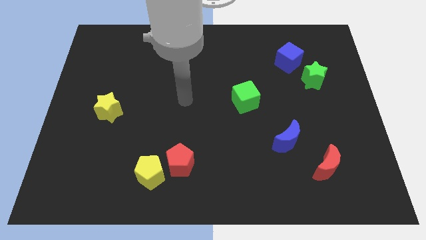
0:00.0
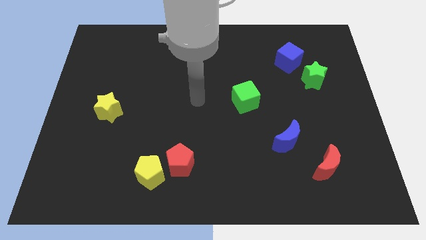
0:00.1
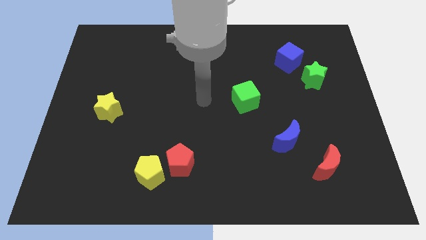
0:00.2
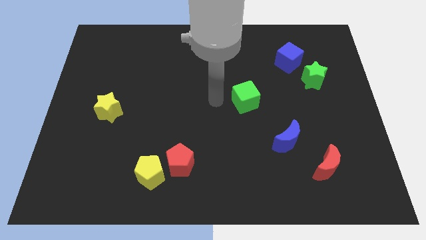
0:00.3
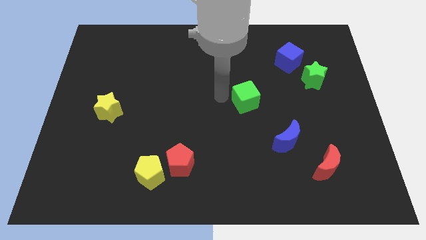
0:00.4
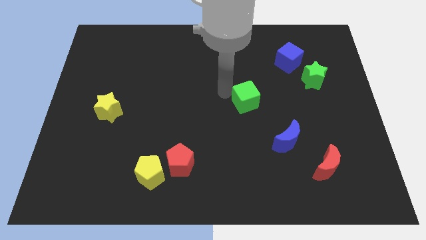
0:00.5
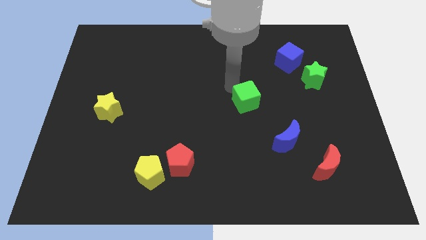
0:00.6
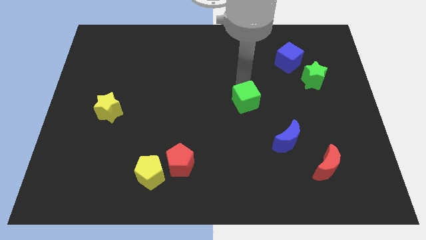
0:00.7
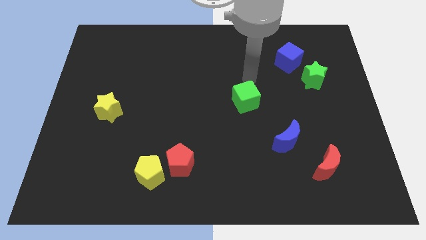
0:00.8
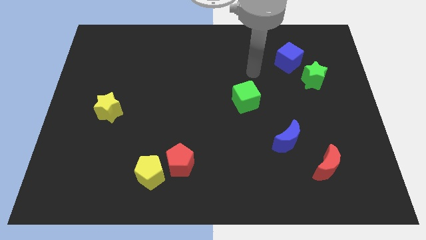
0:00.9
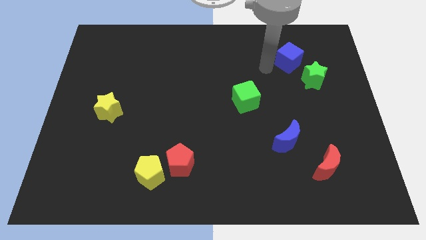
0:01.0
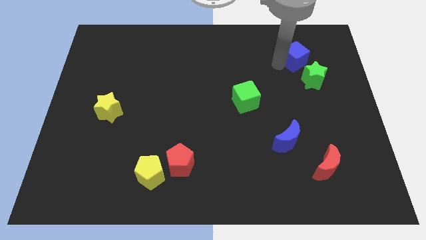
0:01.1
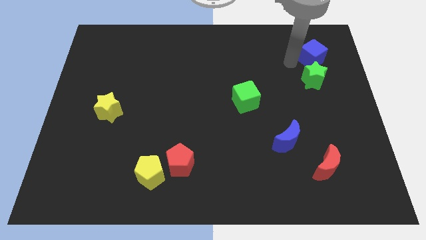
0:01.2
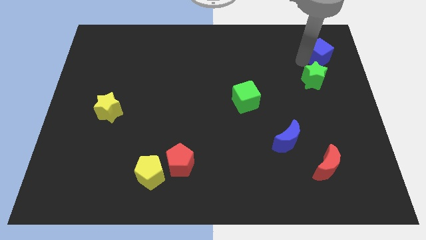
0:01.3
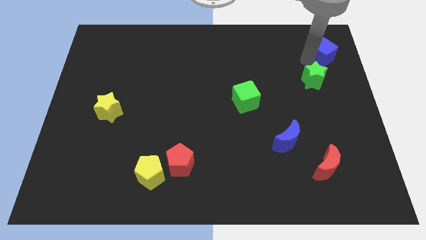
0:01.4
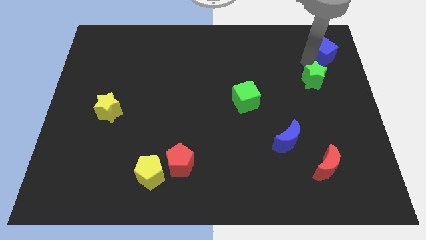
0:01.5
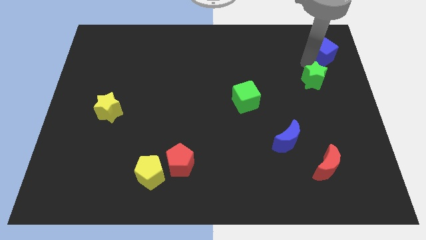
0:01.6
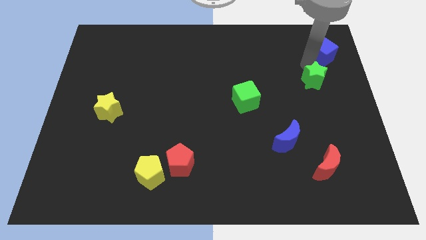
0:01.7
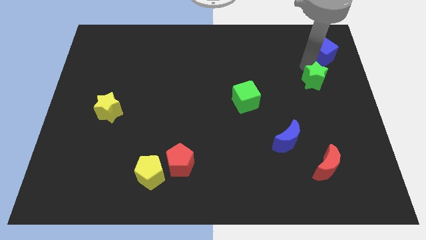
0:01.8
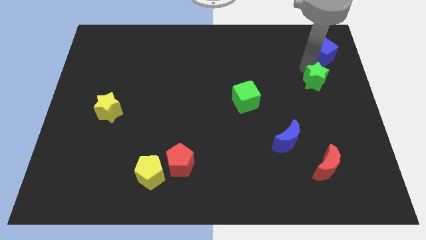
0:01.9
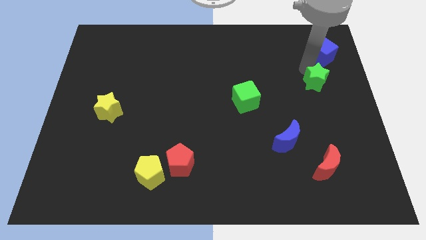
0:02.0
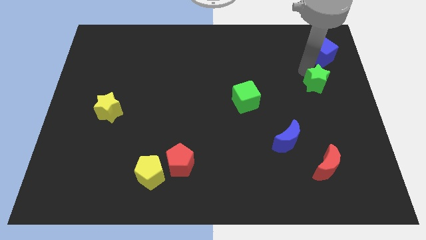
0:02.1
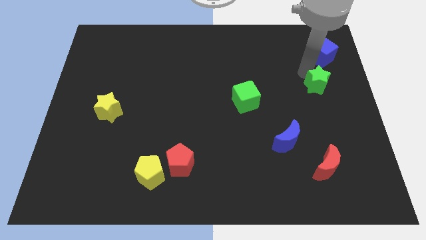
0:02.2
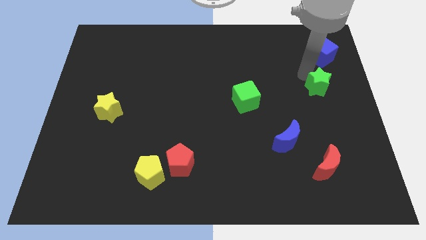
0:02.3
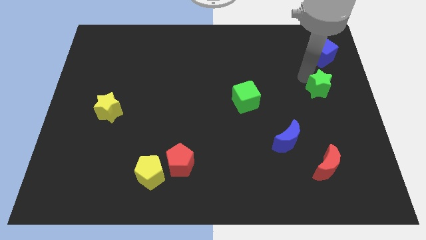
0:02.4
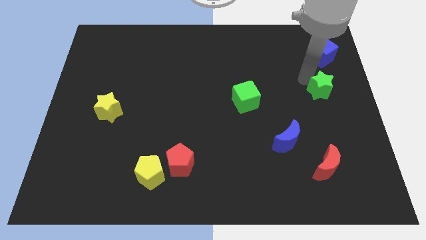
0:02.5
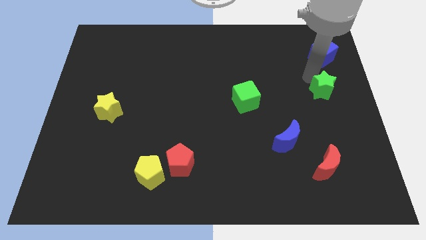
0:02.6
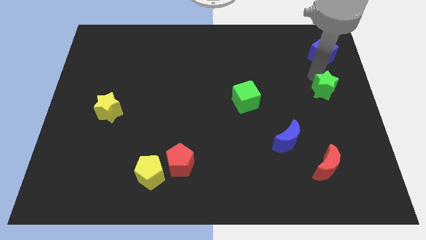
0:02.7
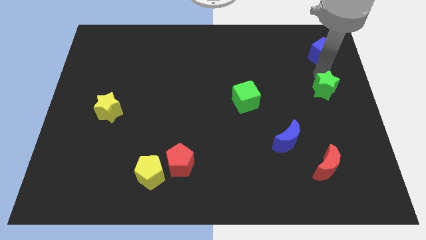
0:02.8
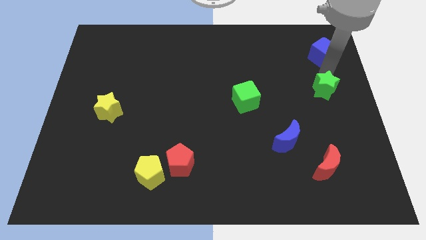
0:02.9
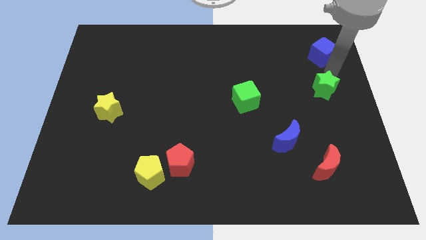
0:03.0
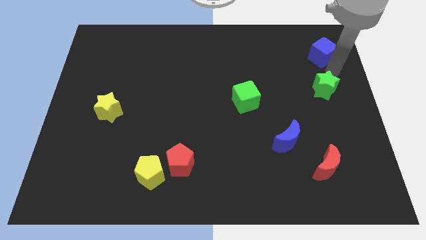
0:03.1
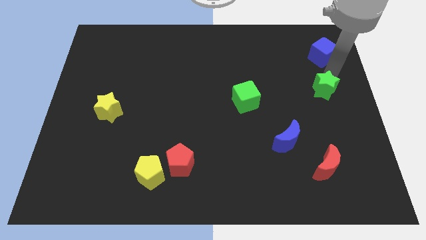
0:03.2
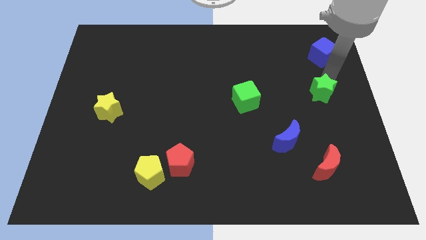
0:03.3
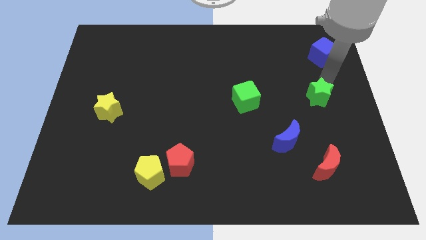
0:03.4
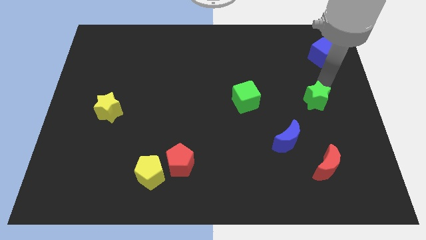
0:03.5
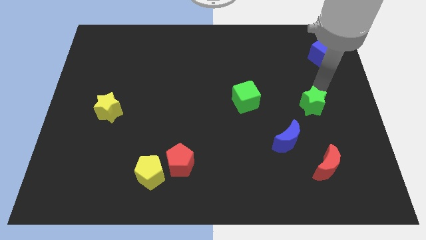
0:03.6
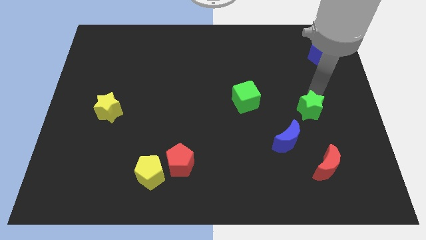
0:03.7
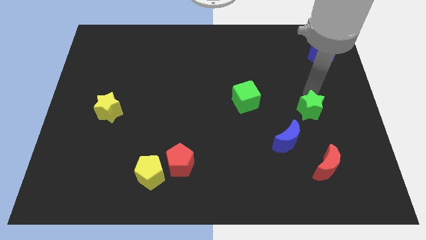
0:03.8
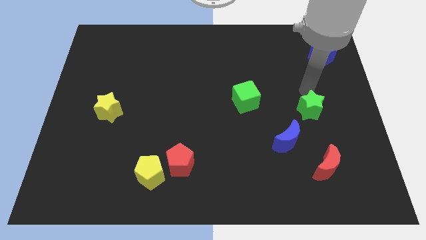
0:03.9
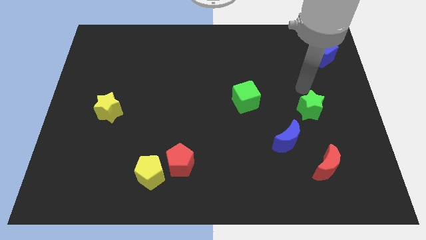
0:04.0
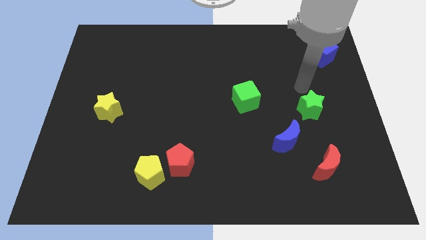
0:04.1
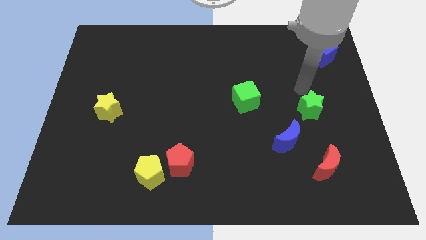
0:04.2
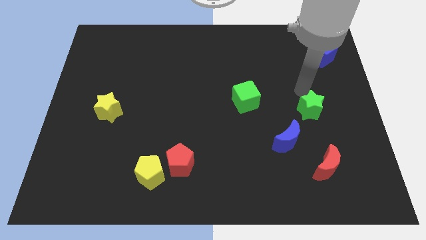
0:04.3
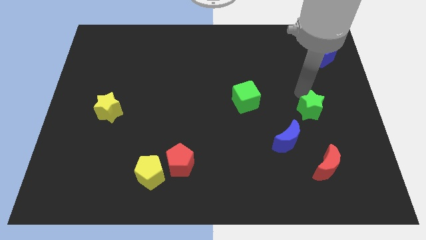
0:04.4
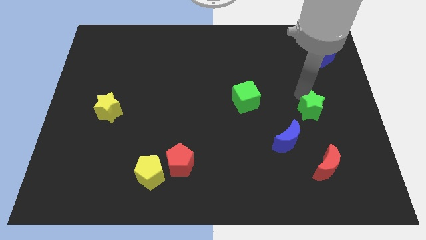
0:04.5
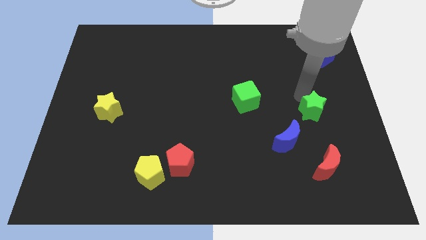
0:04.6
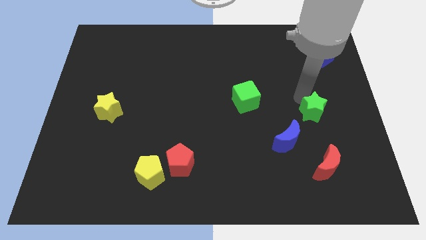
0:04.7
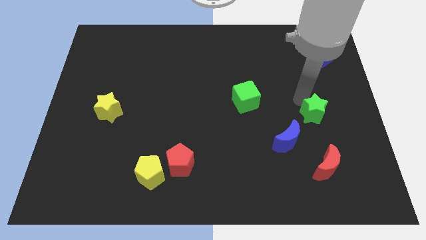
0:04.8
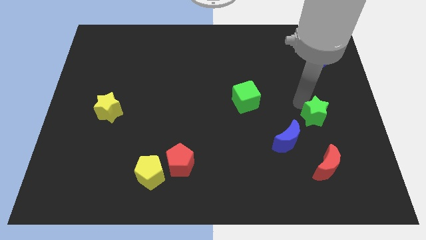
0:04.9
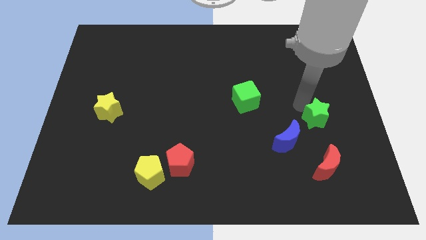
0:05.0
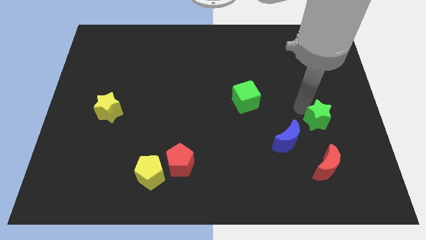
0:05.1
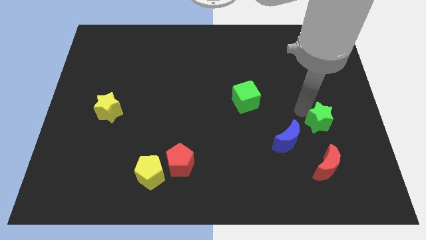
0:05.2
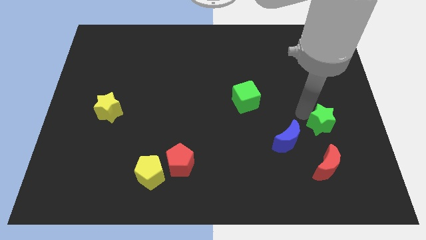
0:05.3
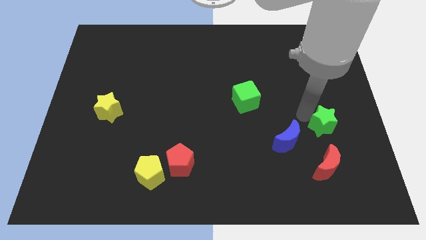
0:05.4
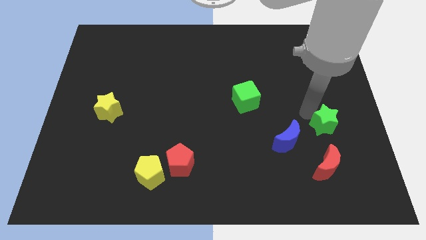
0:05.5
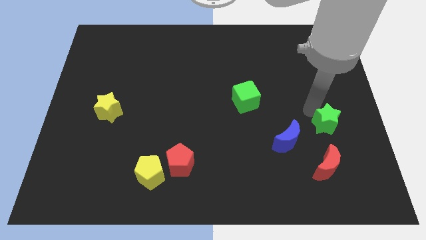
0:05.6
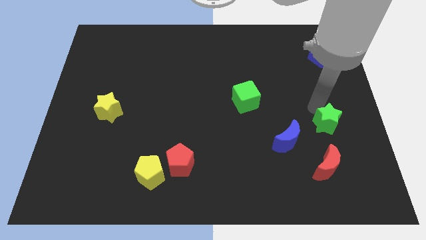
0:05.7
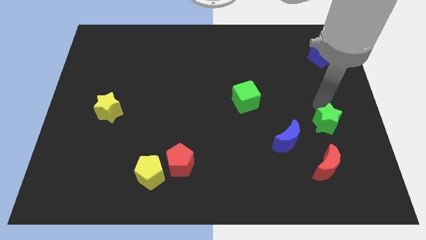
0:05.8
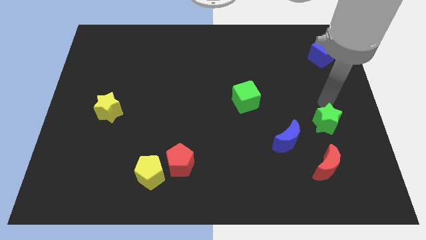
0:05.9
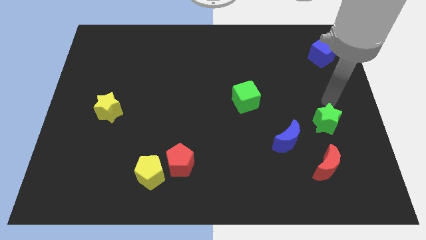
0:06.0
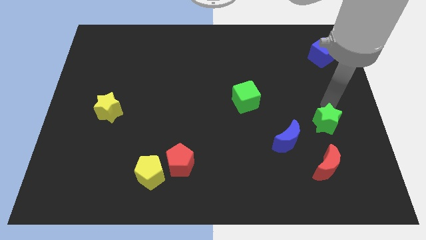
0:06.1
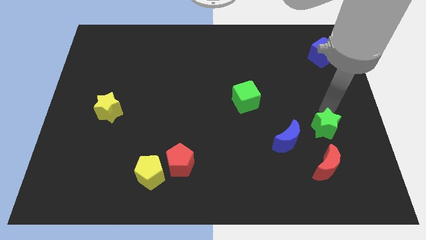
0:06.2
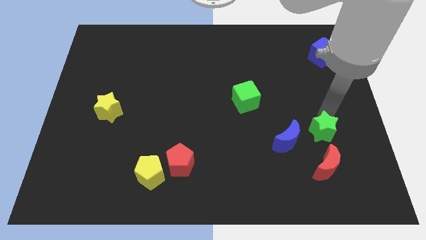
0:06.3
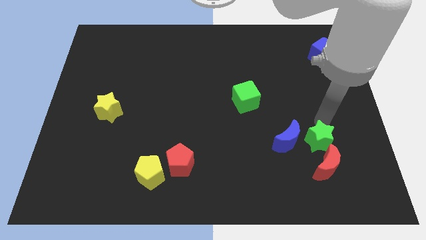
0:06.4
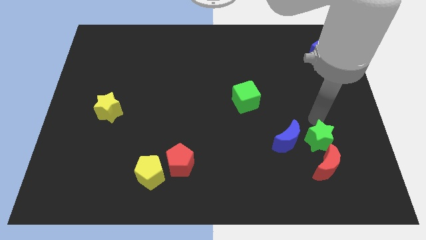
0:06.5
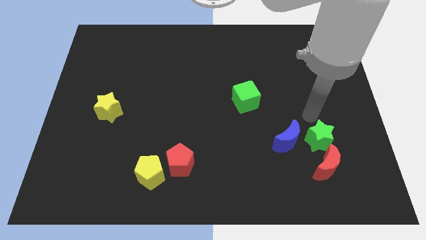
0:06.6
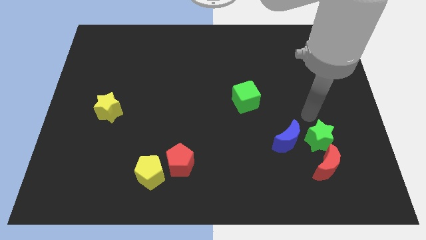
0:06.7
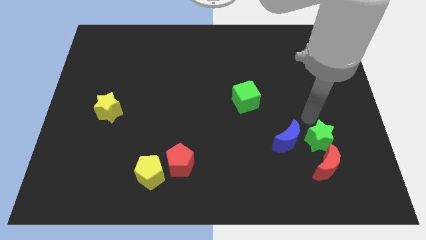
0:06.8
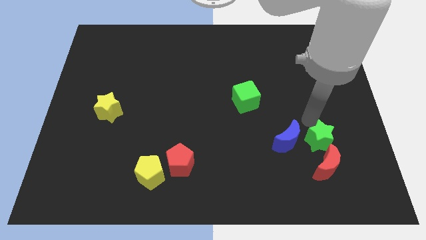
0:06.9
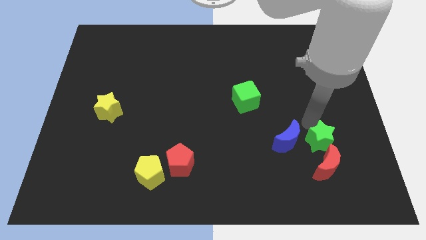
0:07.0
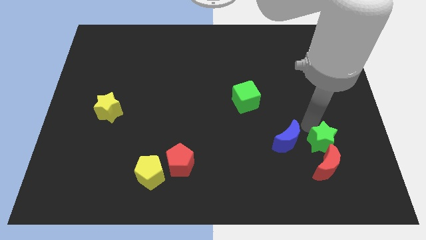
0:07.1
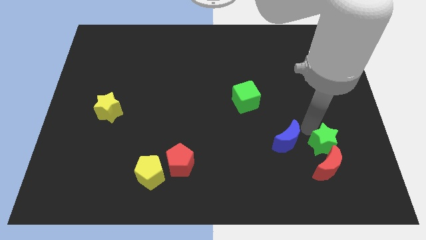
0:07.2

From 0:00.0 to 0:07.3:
put the green star to the red moon
